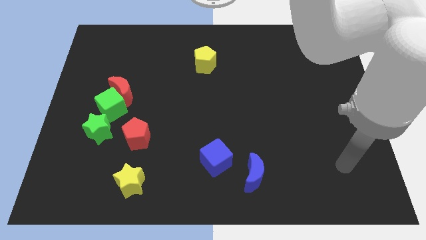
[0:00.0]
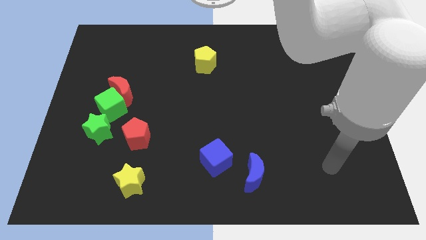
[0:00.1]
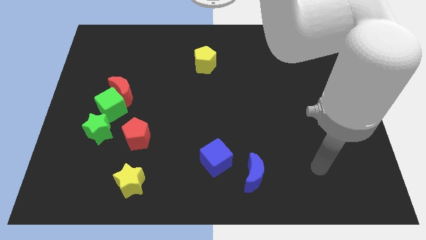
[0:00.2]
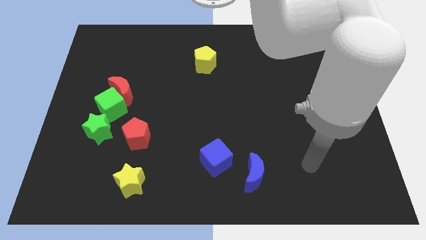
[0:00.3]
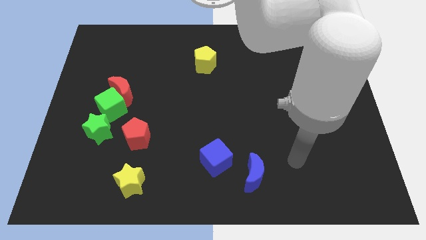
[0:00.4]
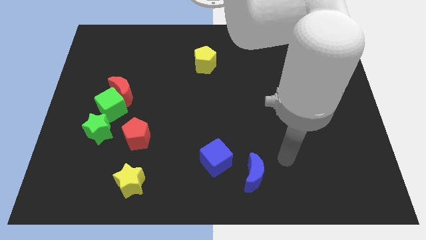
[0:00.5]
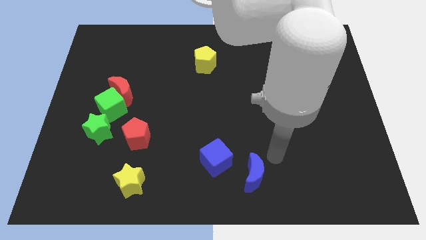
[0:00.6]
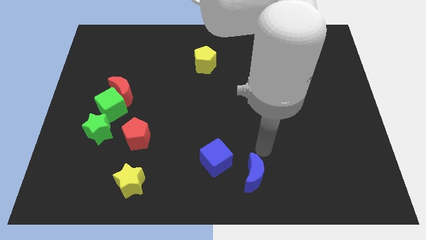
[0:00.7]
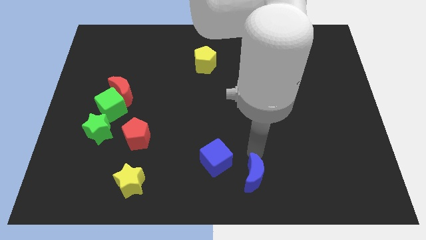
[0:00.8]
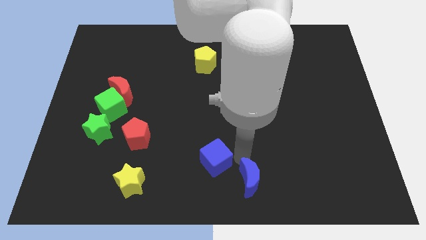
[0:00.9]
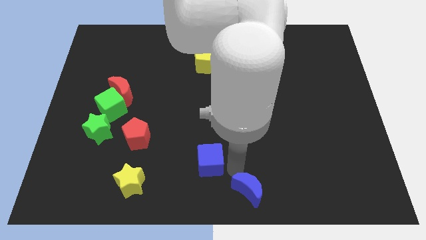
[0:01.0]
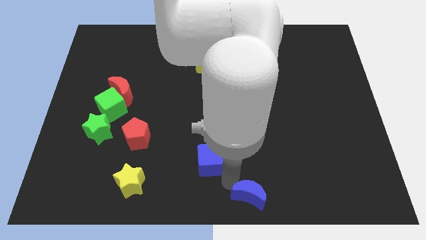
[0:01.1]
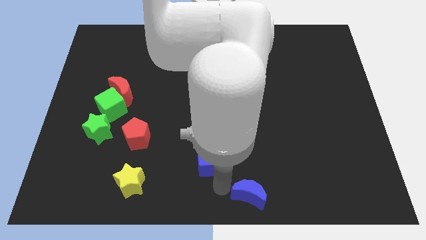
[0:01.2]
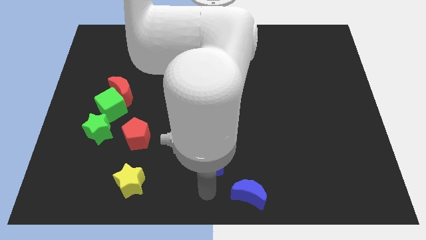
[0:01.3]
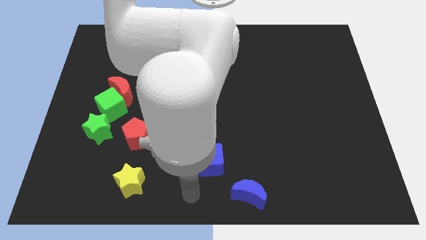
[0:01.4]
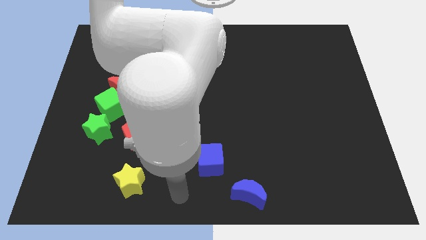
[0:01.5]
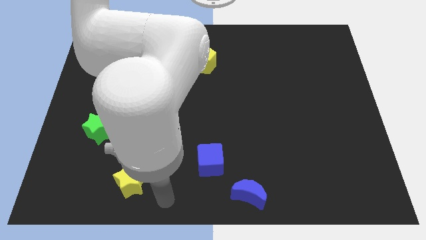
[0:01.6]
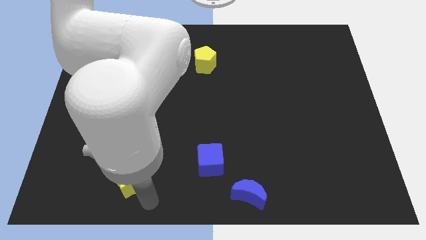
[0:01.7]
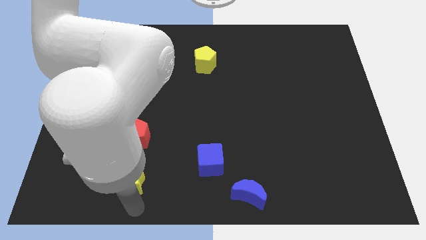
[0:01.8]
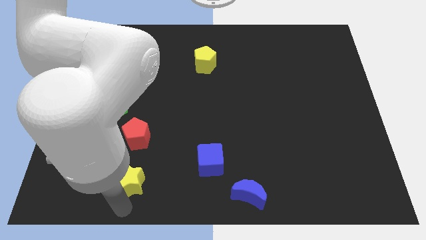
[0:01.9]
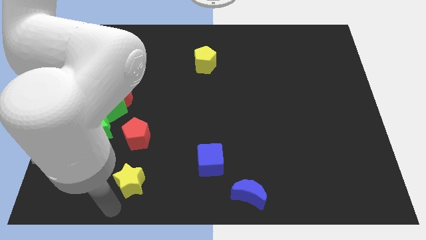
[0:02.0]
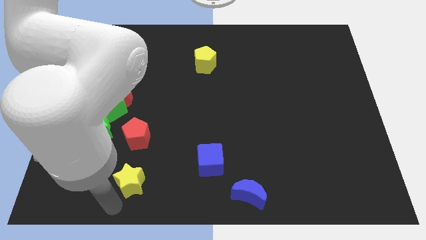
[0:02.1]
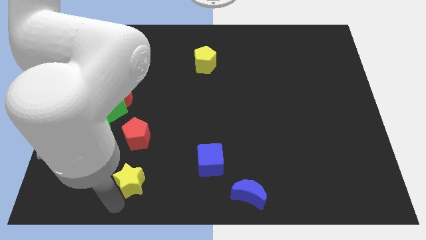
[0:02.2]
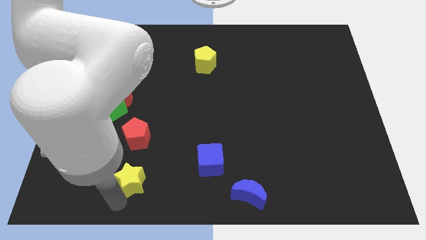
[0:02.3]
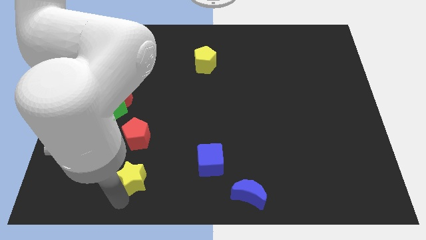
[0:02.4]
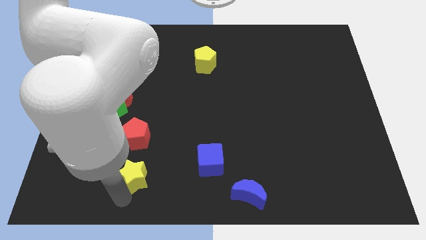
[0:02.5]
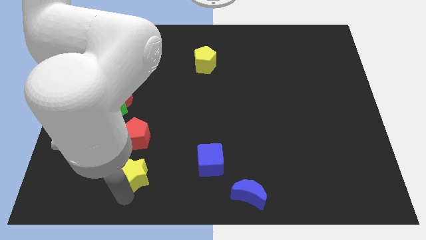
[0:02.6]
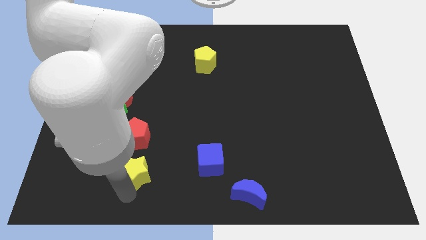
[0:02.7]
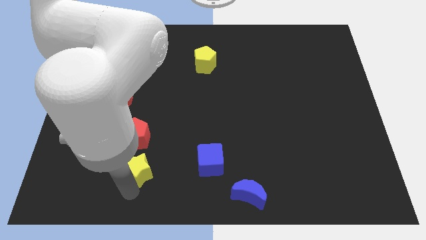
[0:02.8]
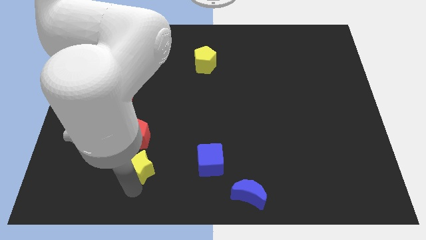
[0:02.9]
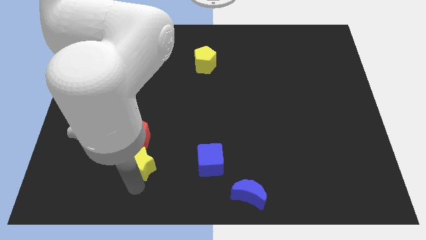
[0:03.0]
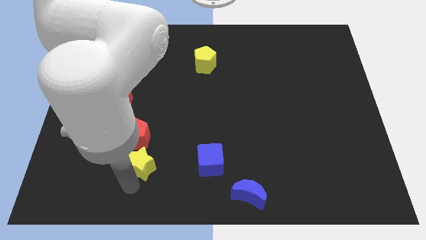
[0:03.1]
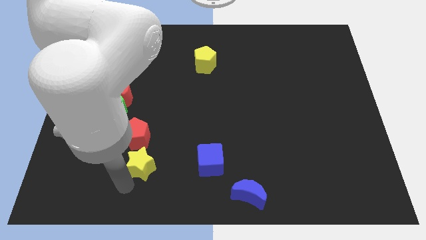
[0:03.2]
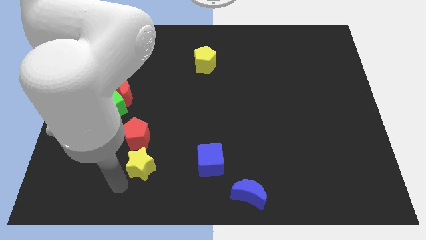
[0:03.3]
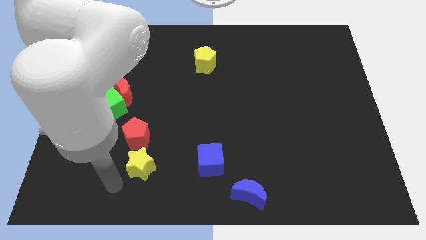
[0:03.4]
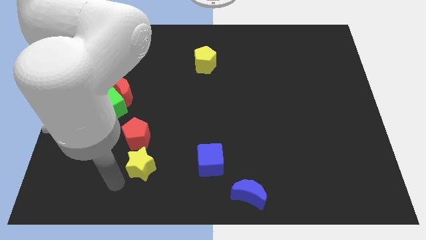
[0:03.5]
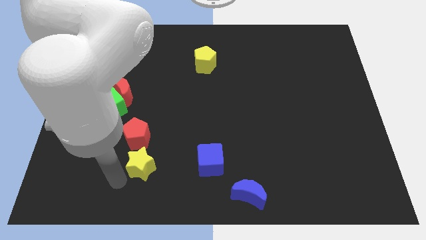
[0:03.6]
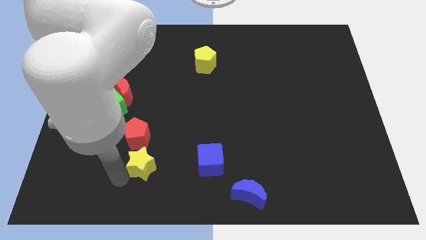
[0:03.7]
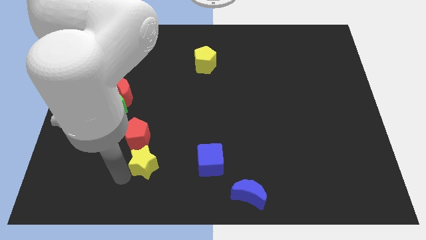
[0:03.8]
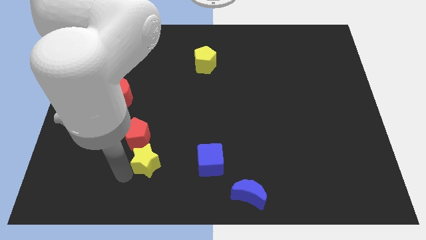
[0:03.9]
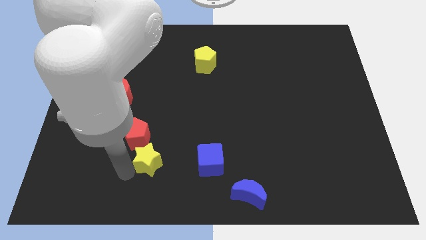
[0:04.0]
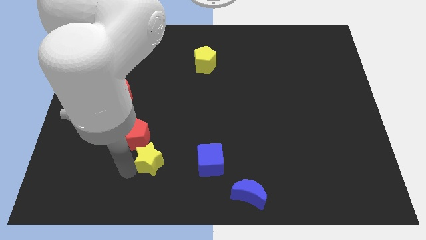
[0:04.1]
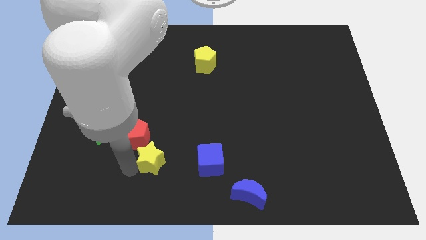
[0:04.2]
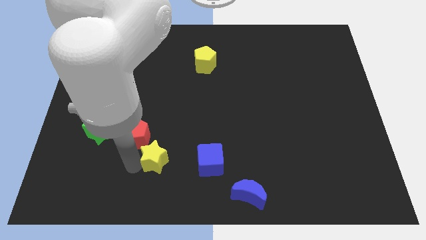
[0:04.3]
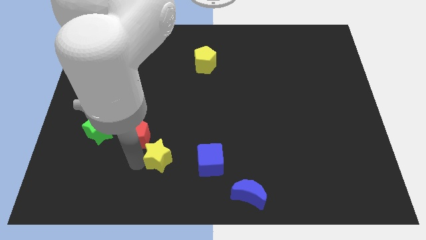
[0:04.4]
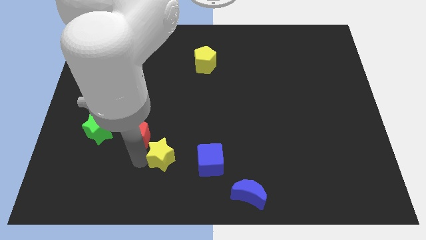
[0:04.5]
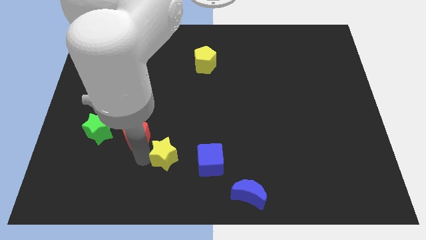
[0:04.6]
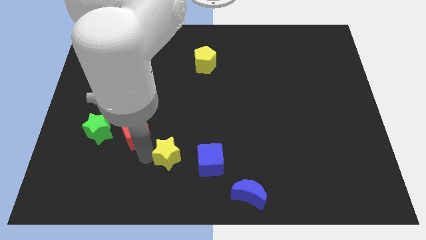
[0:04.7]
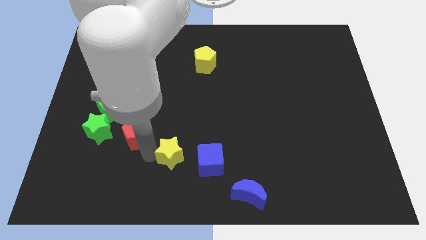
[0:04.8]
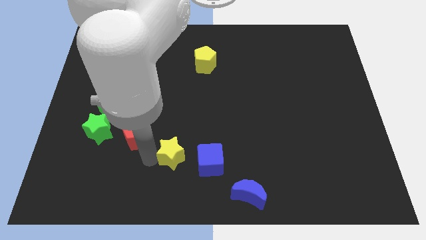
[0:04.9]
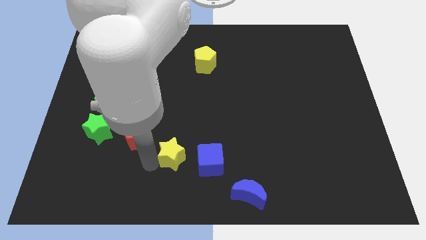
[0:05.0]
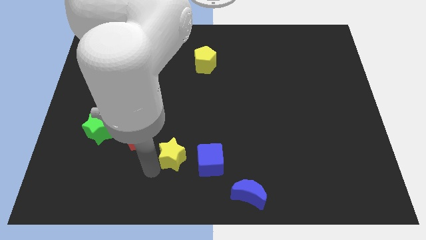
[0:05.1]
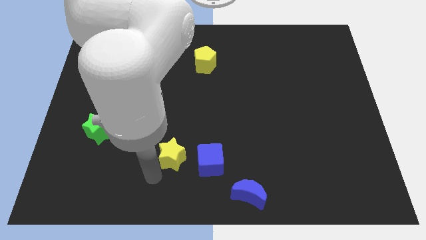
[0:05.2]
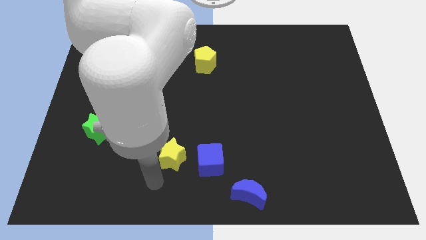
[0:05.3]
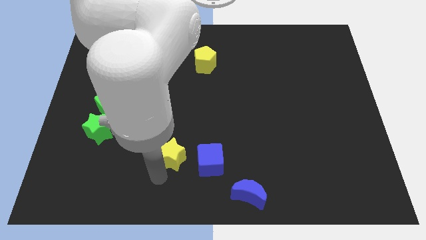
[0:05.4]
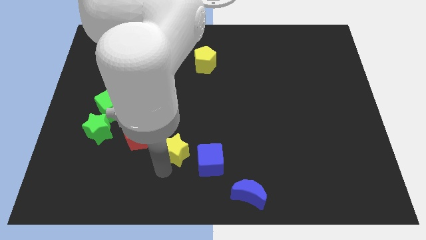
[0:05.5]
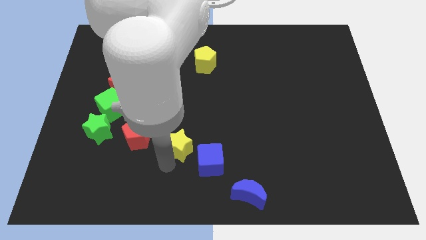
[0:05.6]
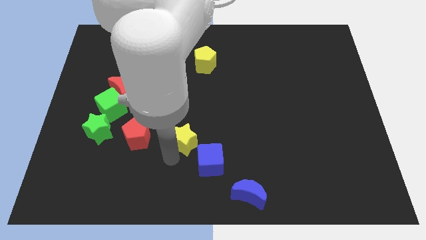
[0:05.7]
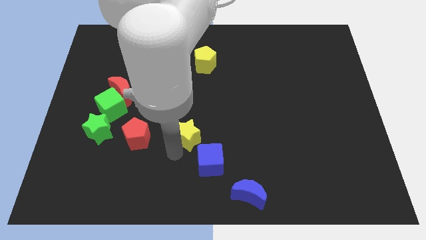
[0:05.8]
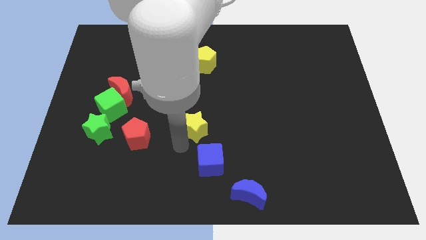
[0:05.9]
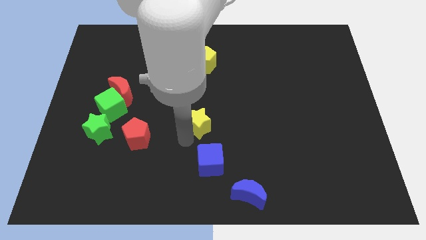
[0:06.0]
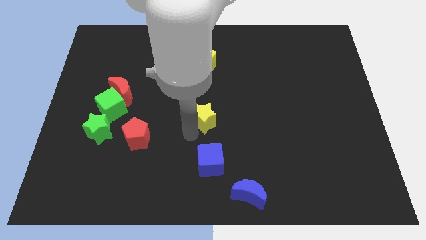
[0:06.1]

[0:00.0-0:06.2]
push the yellow star upwards and to the right diagonally

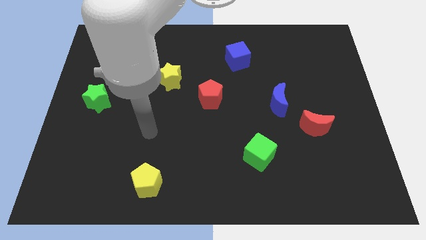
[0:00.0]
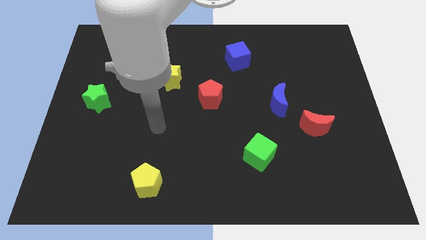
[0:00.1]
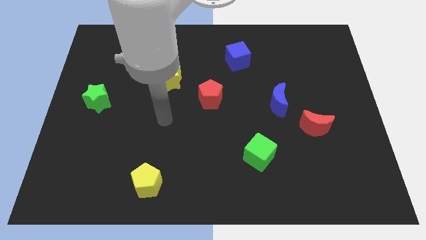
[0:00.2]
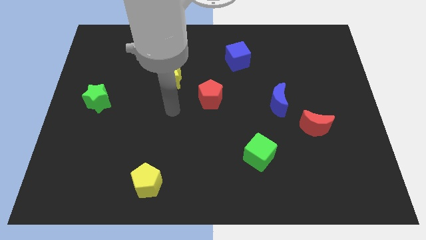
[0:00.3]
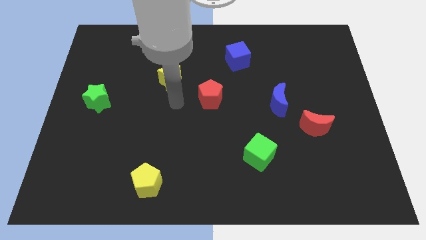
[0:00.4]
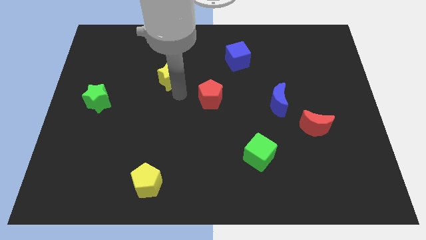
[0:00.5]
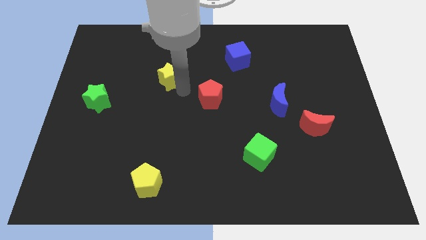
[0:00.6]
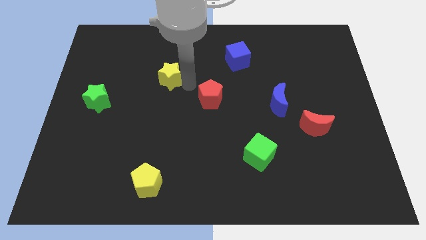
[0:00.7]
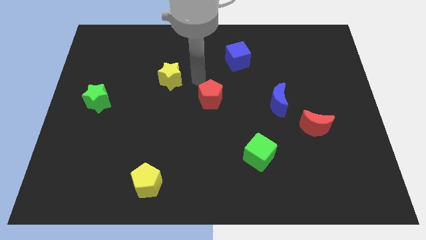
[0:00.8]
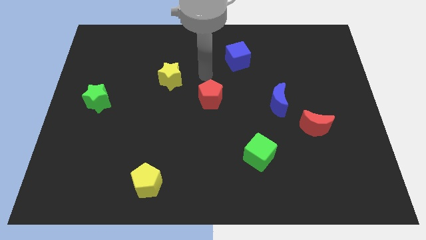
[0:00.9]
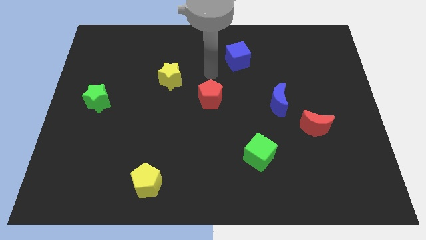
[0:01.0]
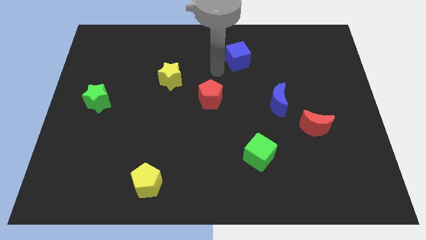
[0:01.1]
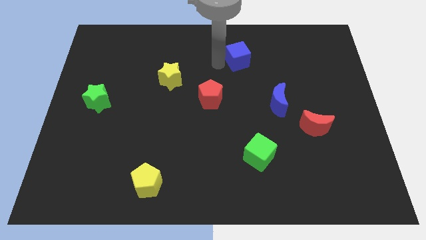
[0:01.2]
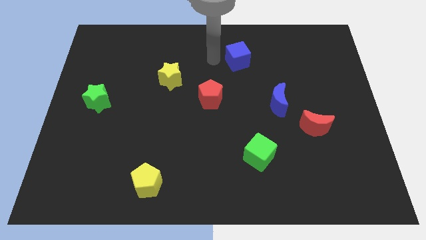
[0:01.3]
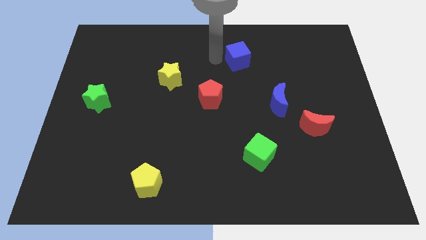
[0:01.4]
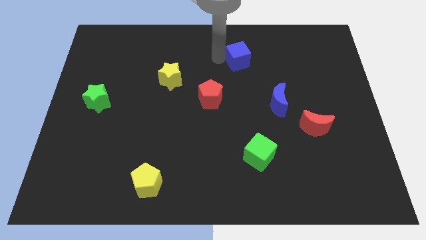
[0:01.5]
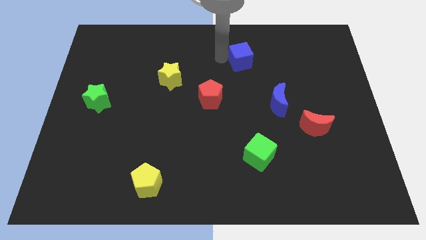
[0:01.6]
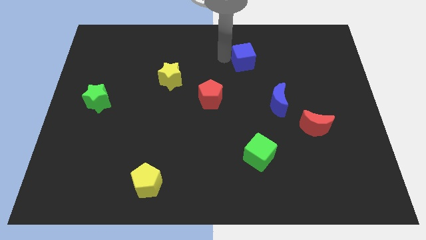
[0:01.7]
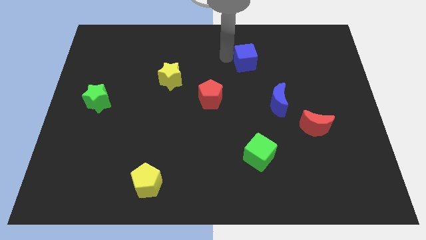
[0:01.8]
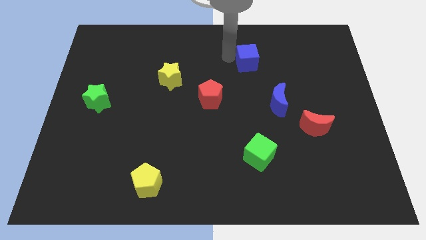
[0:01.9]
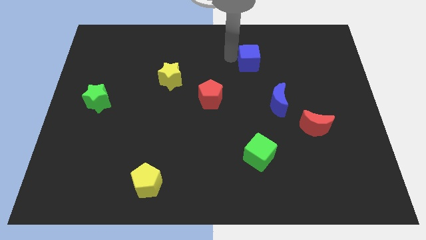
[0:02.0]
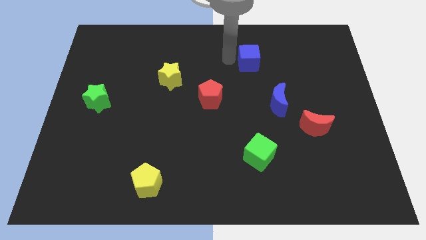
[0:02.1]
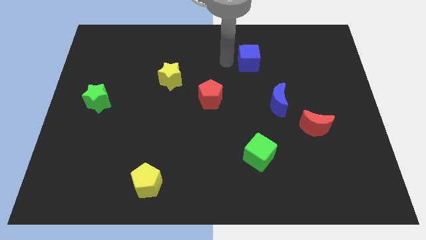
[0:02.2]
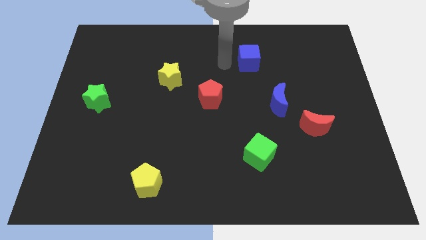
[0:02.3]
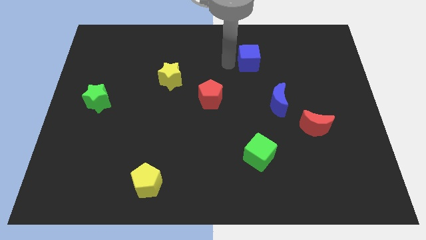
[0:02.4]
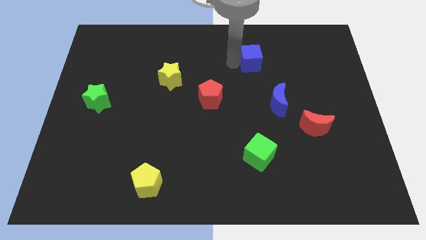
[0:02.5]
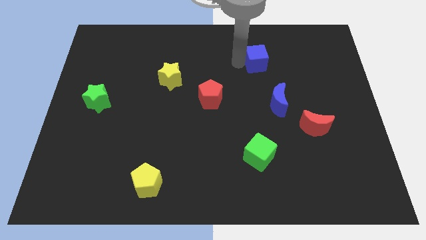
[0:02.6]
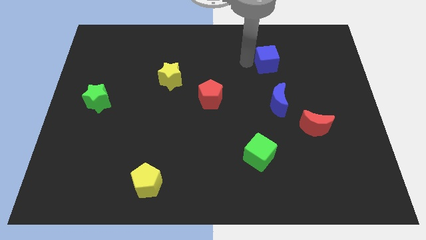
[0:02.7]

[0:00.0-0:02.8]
slightly move the blue cube to the right
